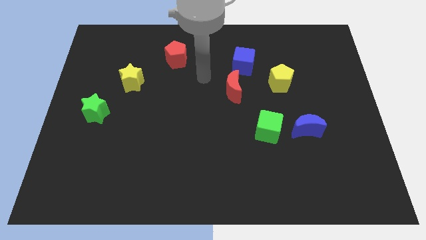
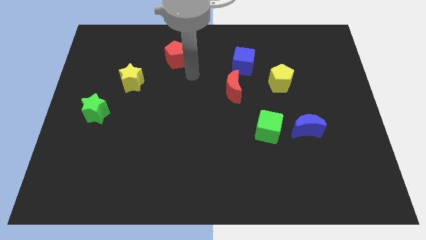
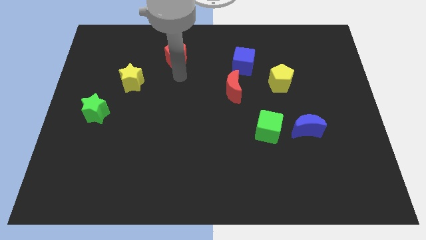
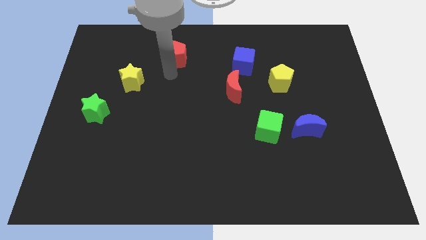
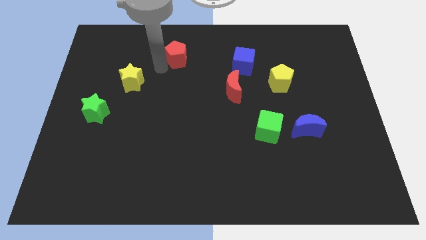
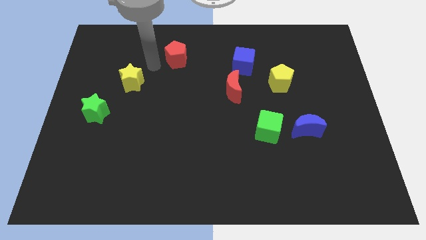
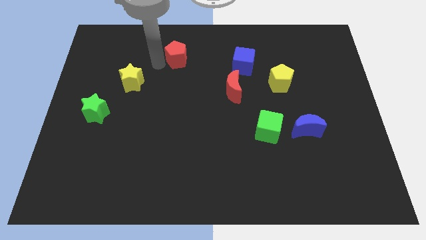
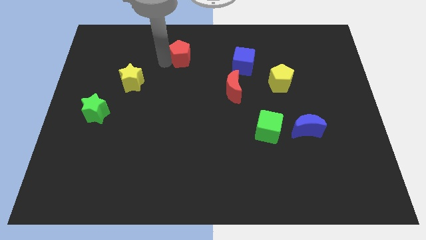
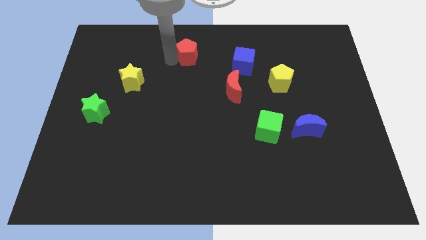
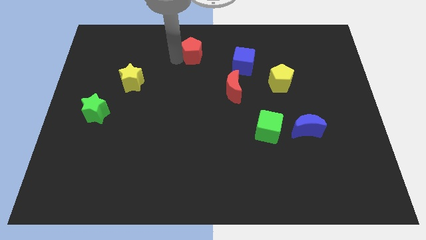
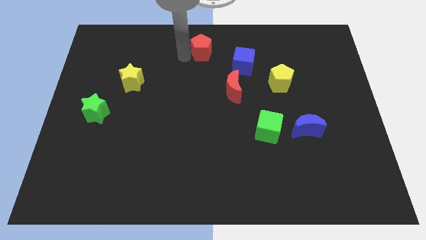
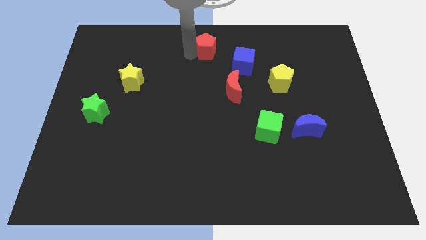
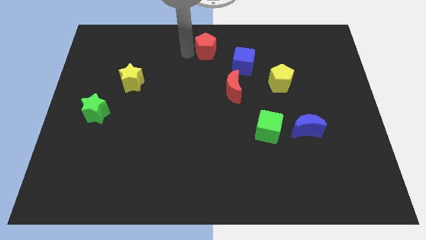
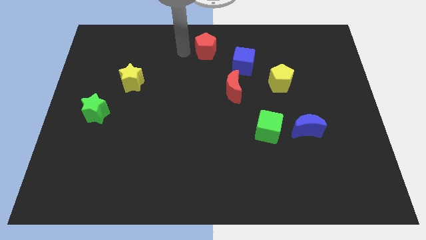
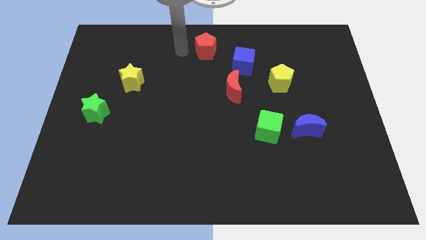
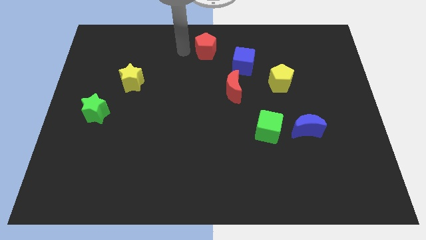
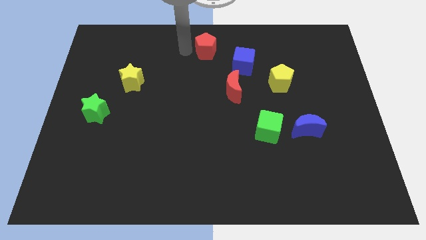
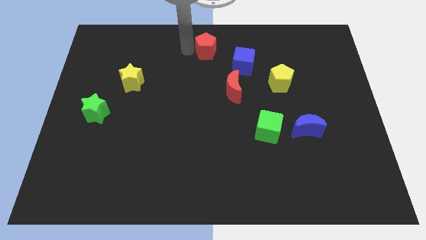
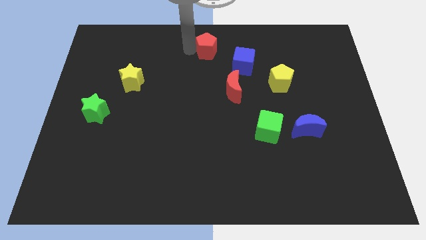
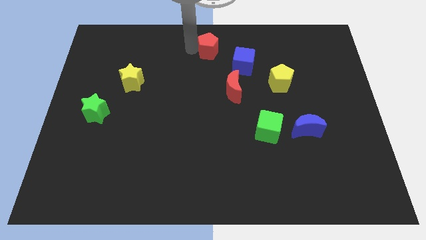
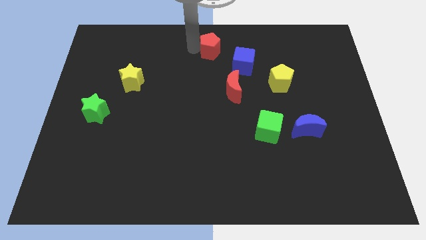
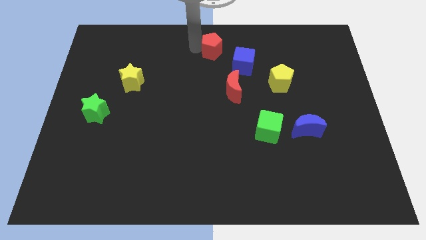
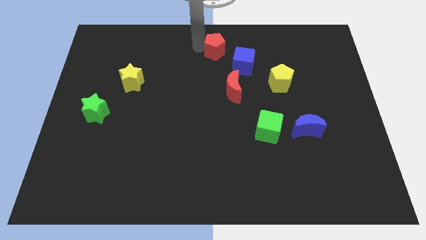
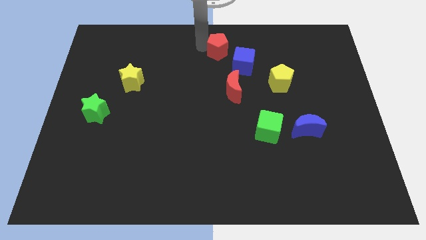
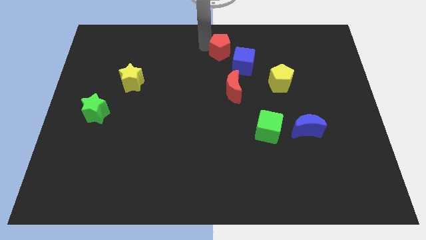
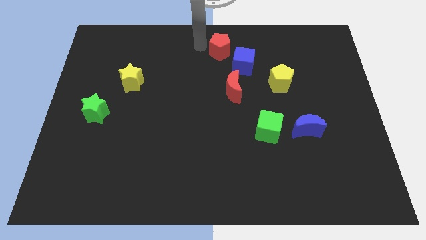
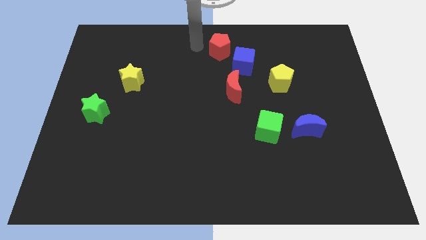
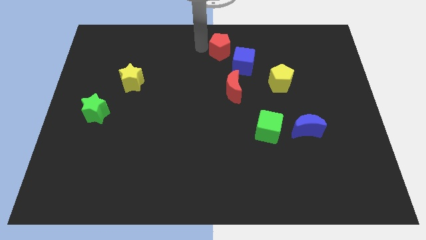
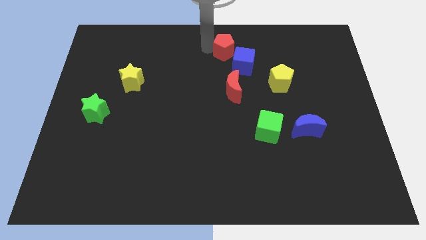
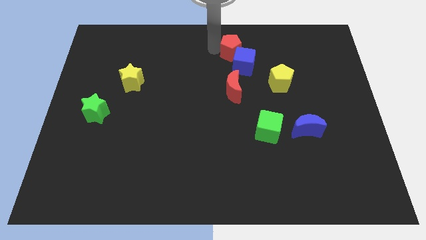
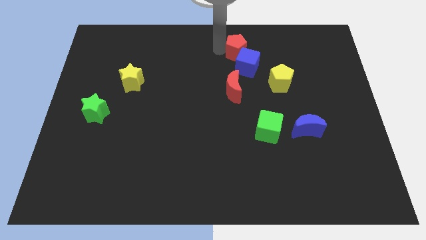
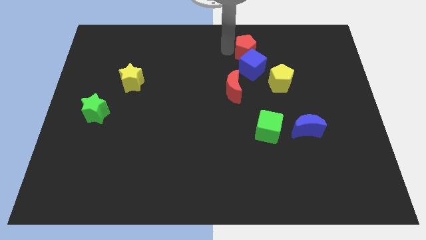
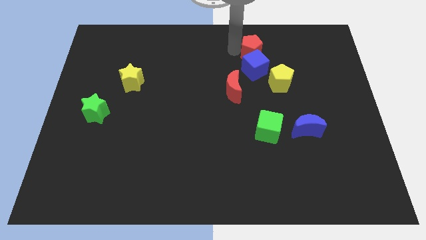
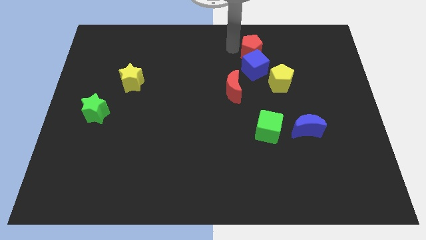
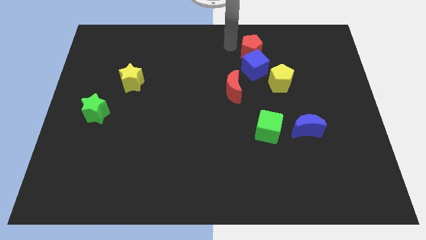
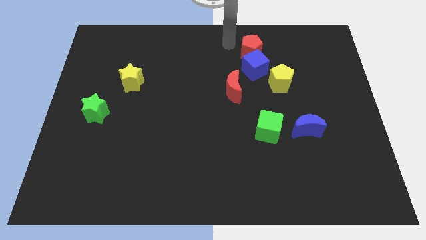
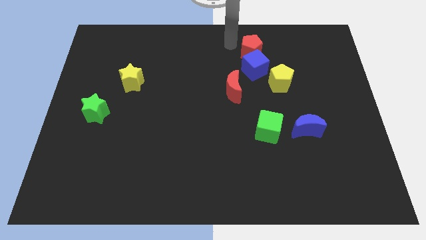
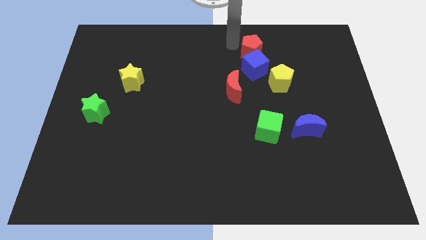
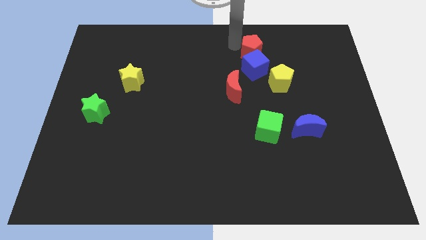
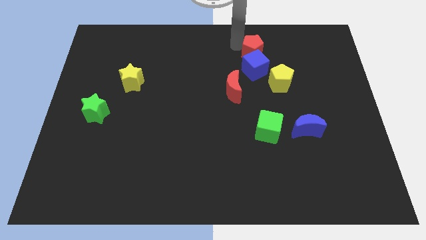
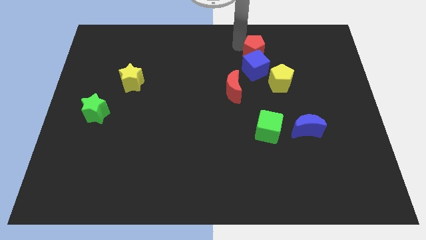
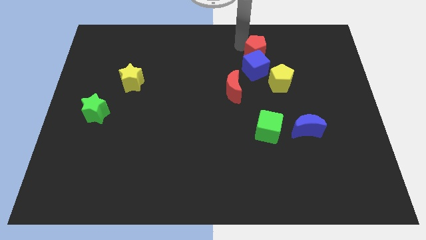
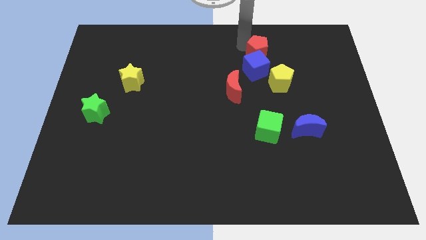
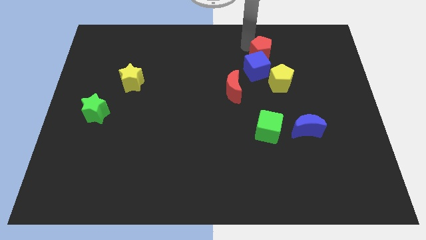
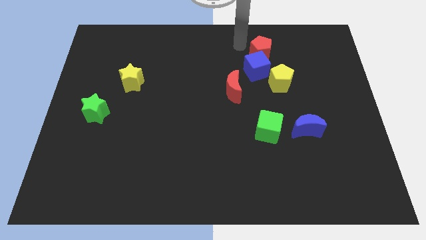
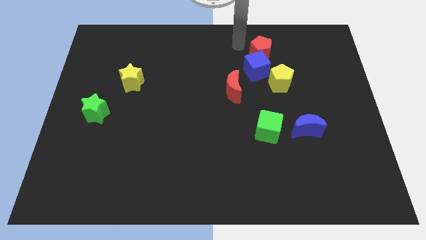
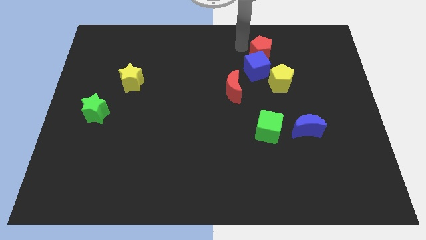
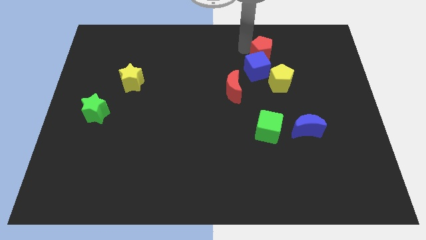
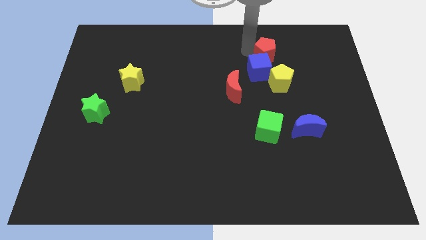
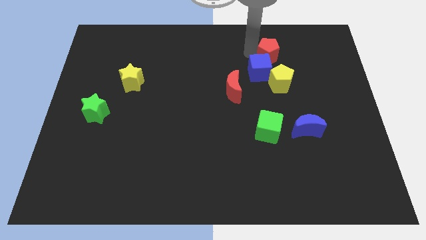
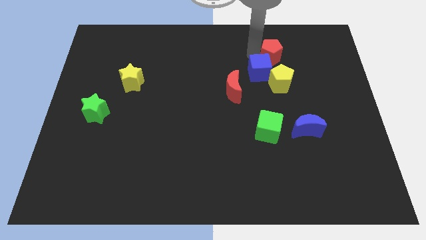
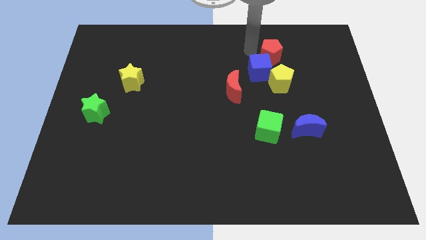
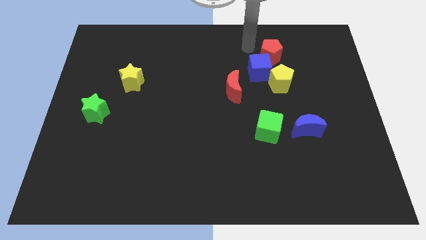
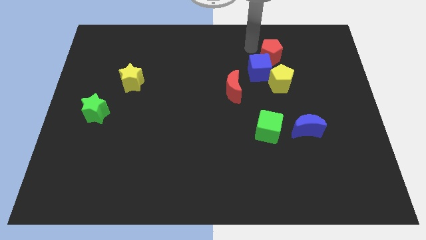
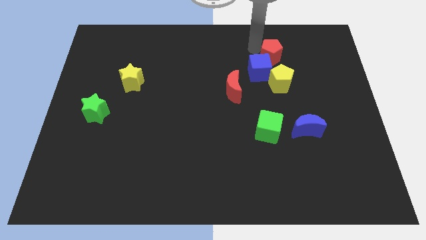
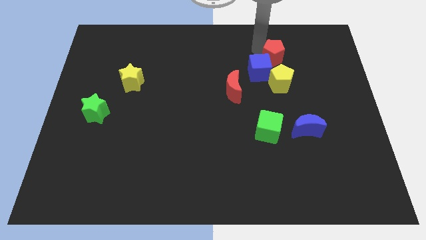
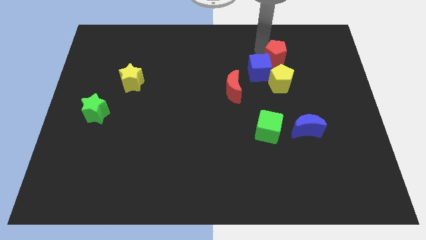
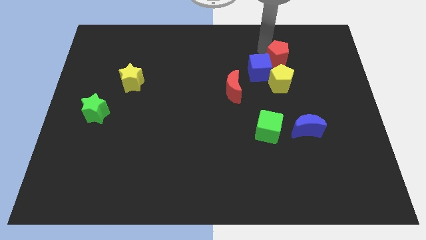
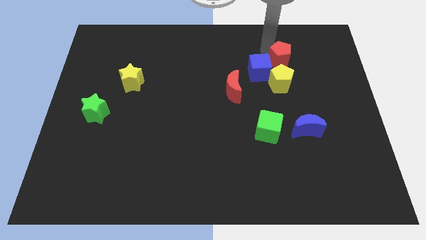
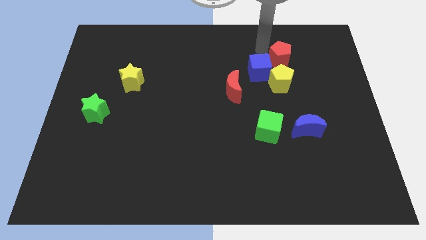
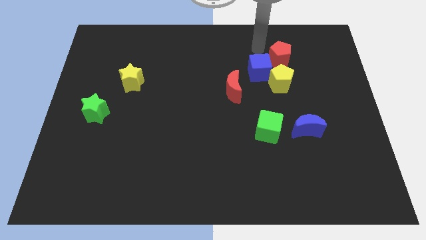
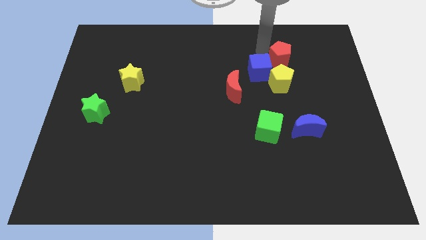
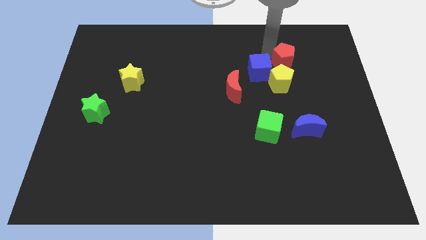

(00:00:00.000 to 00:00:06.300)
move the red pentagon diagonally up and to the right of the yellow pentagon

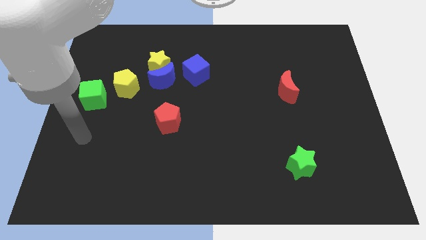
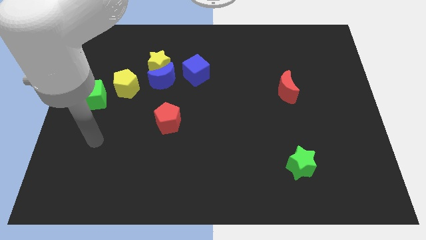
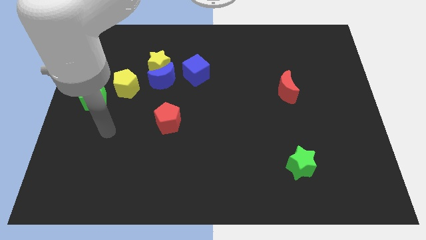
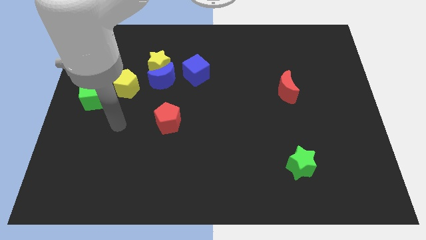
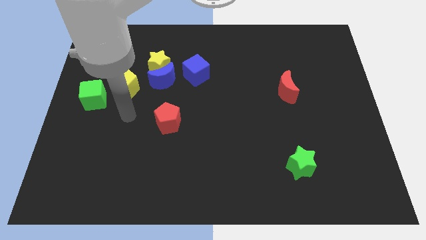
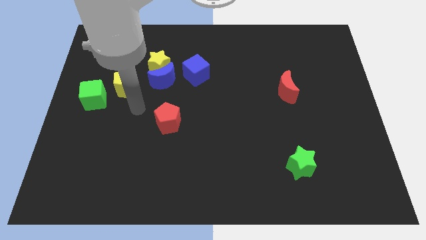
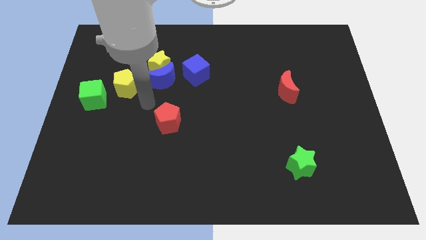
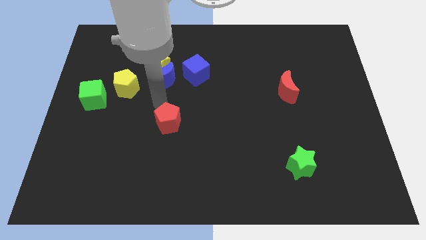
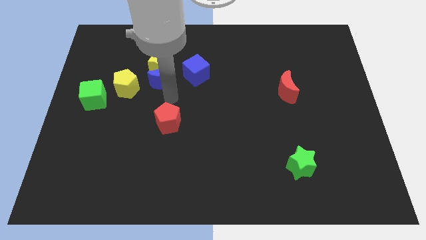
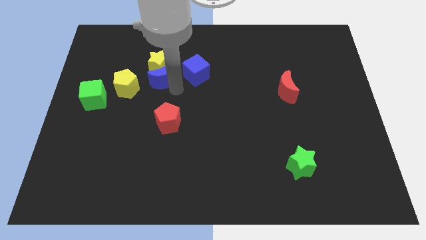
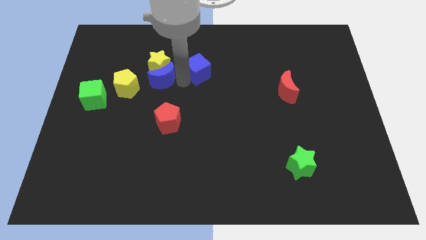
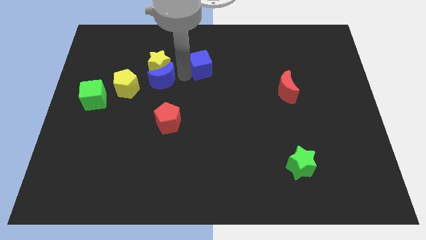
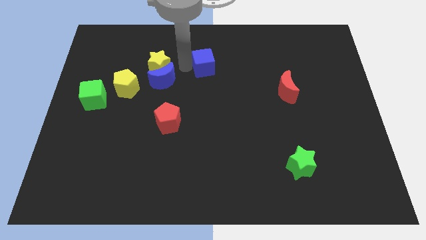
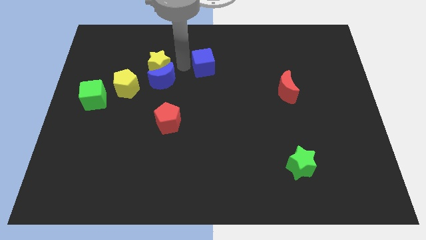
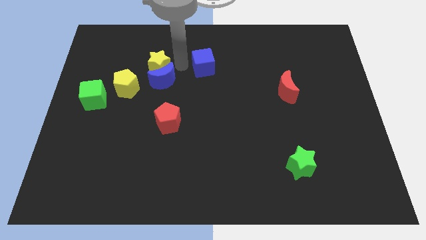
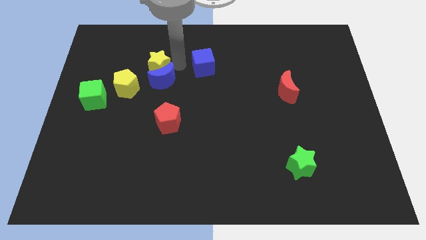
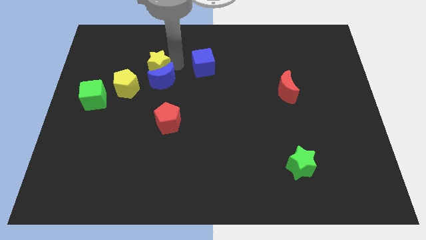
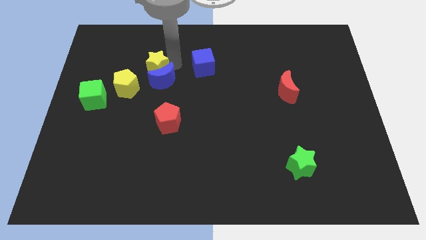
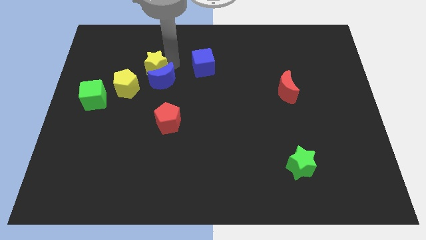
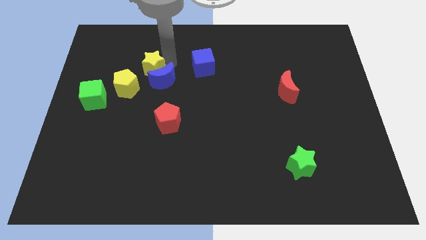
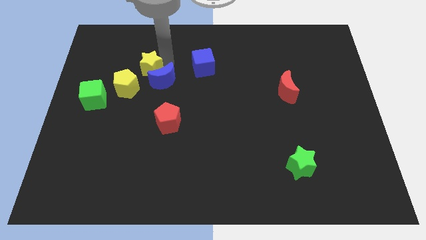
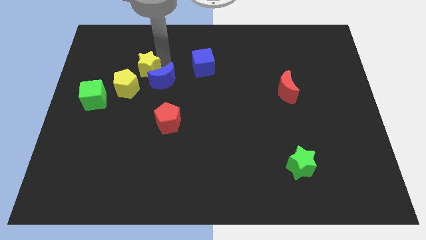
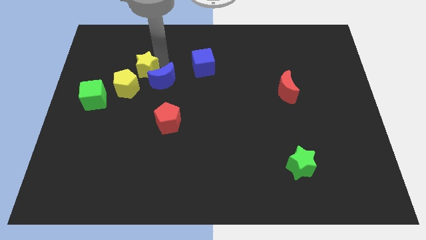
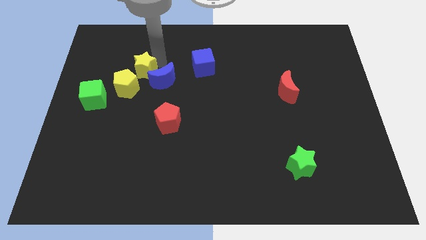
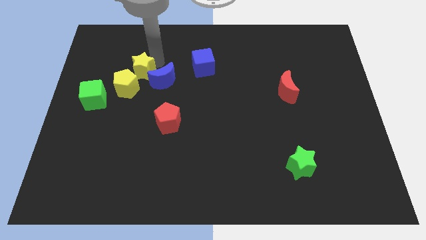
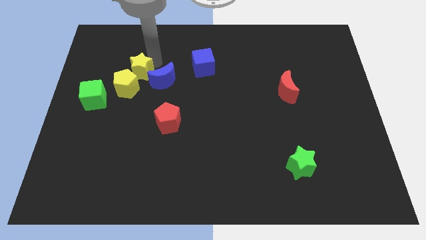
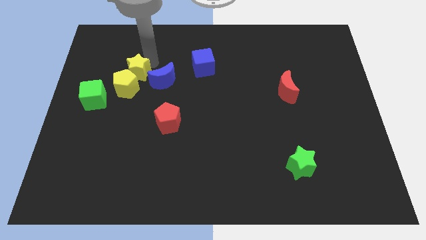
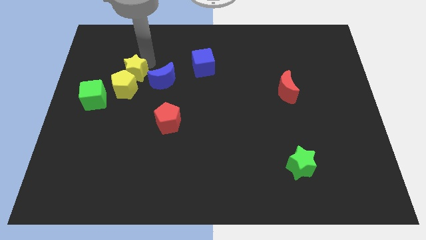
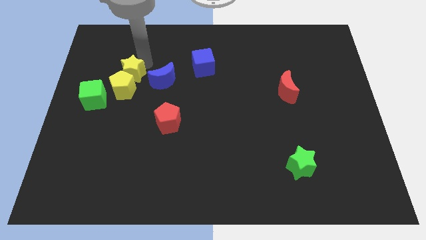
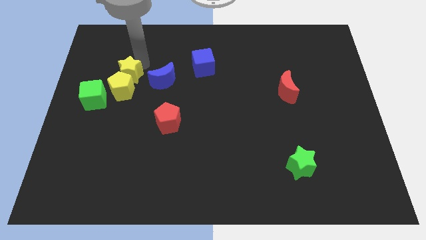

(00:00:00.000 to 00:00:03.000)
push the yellow star diagonally up and to the left of the yellow pentagon
